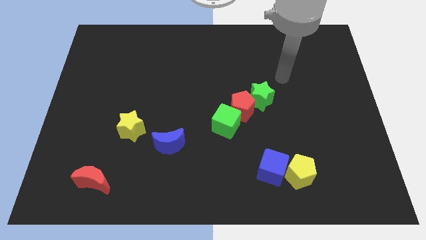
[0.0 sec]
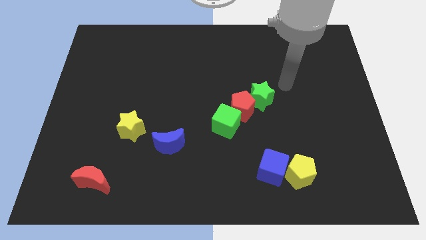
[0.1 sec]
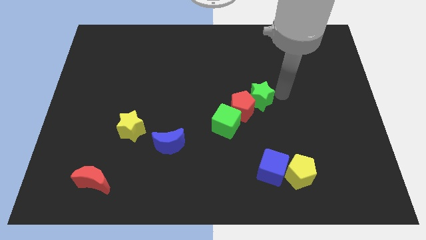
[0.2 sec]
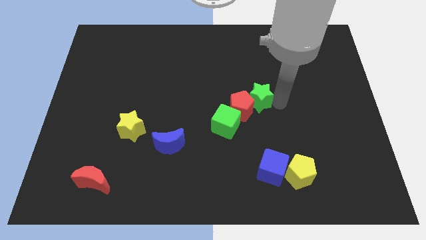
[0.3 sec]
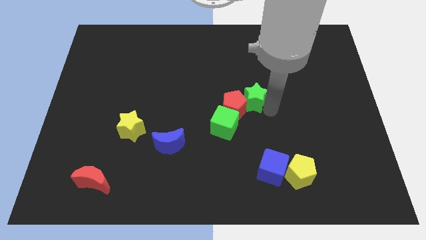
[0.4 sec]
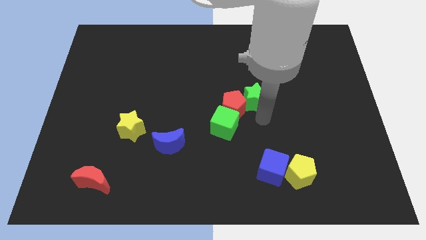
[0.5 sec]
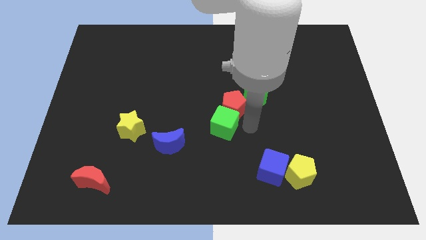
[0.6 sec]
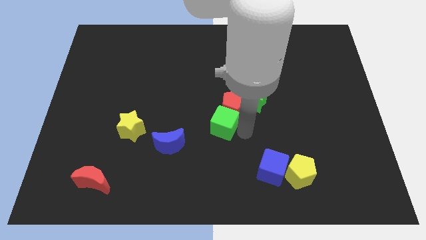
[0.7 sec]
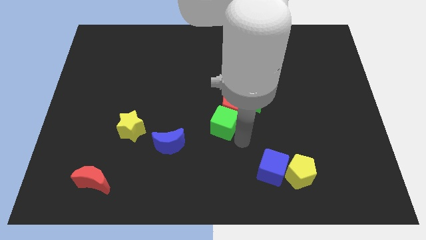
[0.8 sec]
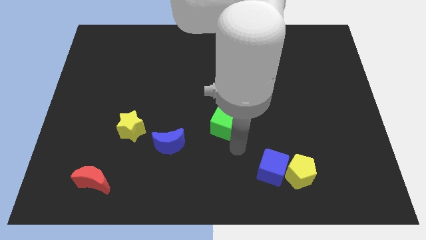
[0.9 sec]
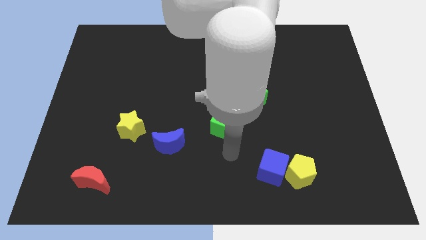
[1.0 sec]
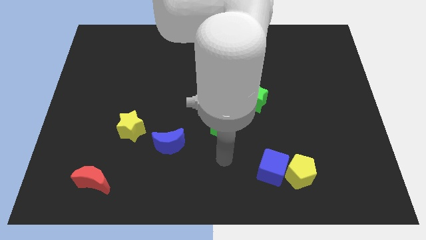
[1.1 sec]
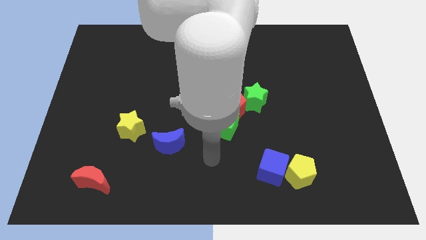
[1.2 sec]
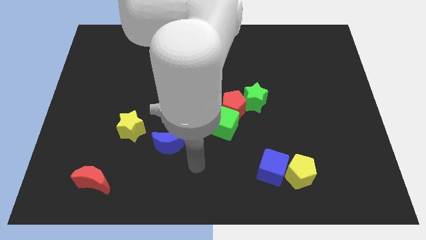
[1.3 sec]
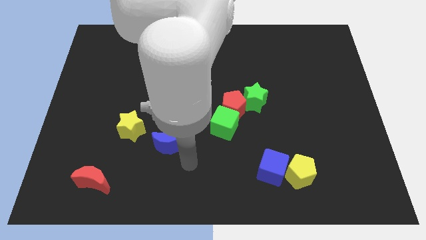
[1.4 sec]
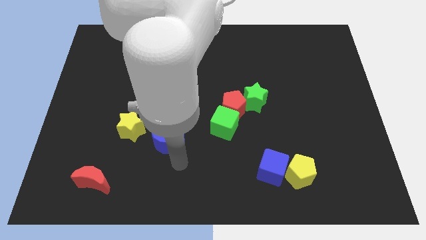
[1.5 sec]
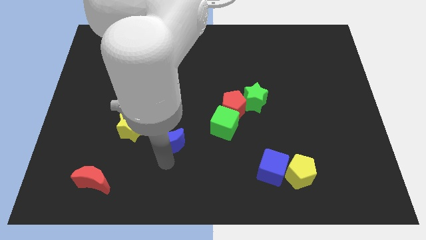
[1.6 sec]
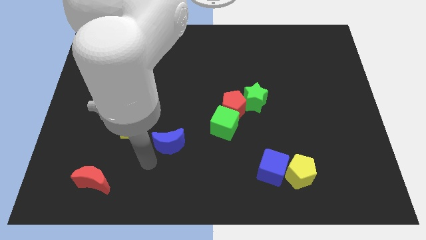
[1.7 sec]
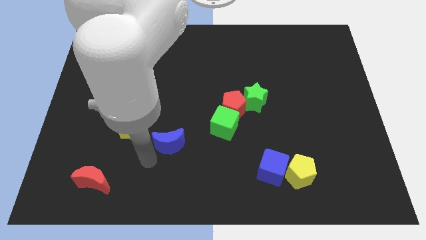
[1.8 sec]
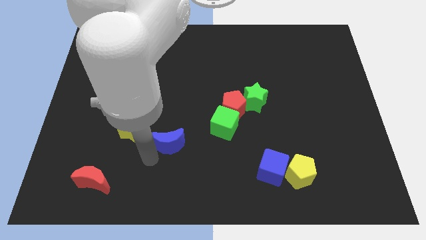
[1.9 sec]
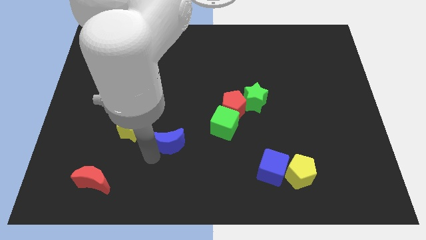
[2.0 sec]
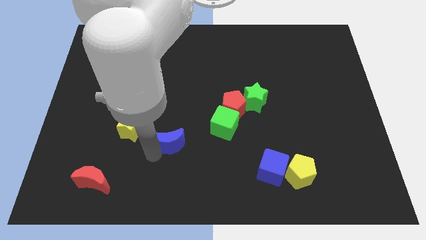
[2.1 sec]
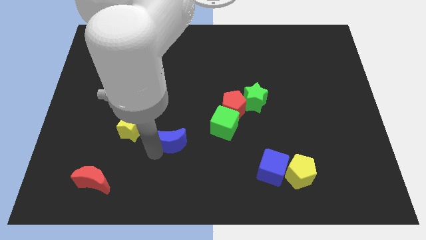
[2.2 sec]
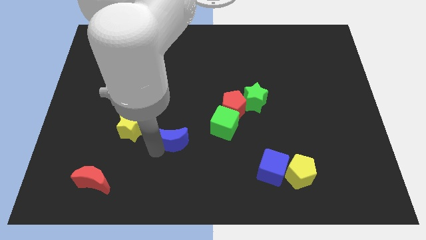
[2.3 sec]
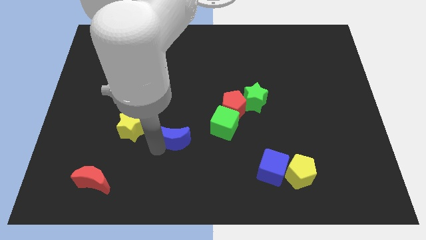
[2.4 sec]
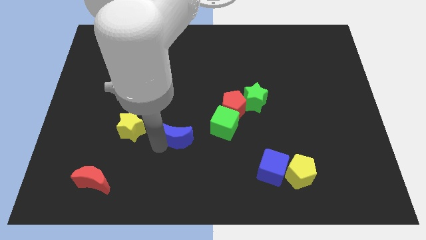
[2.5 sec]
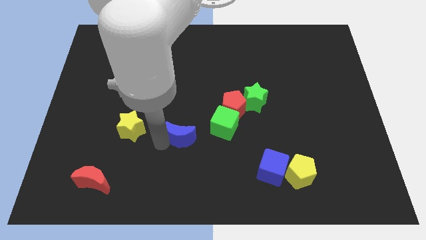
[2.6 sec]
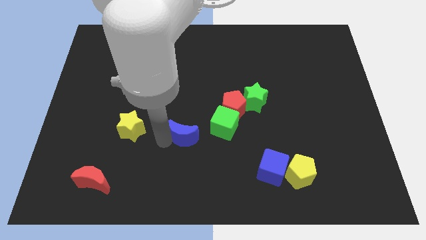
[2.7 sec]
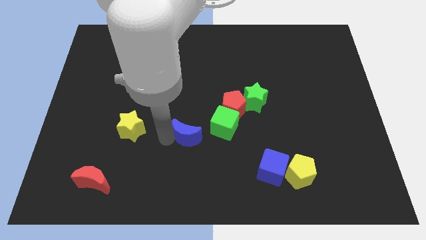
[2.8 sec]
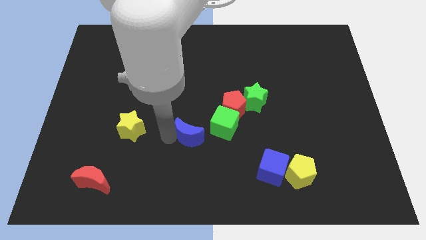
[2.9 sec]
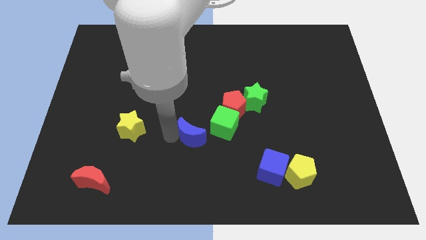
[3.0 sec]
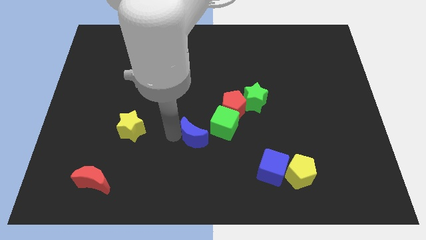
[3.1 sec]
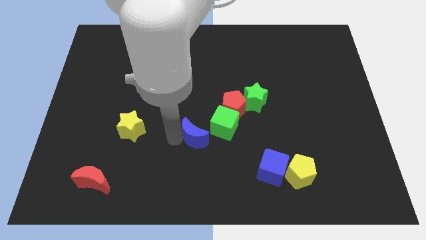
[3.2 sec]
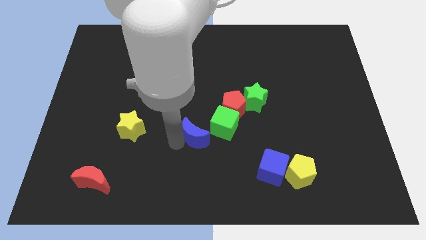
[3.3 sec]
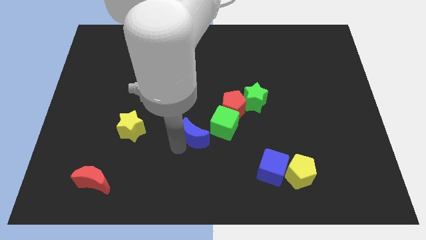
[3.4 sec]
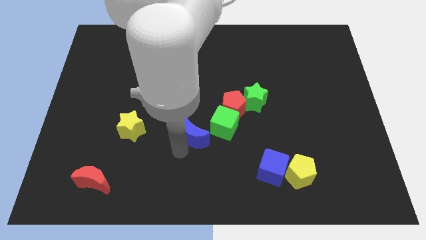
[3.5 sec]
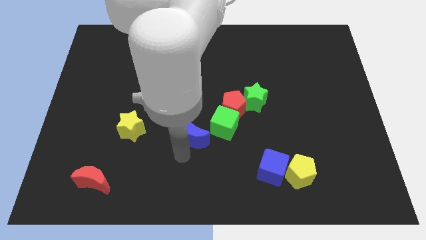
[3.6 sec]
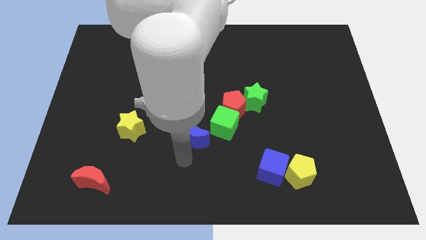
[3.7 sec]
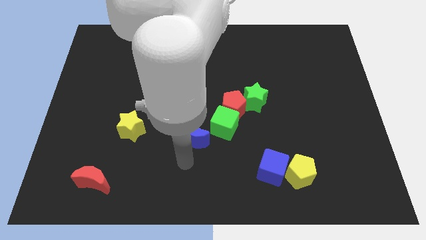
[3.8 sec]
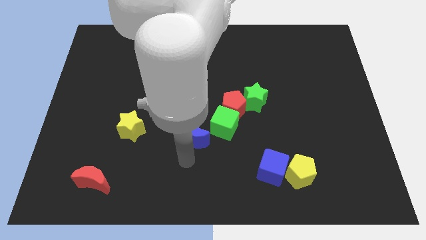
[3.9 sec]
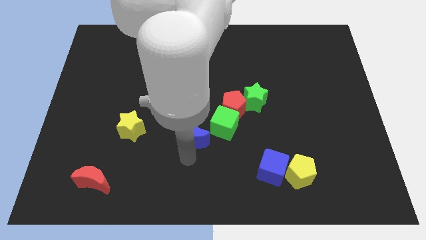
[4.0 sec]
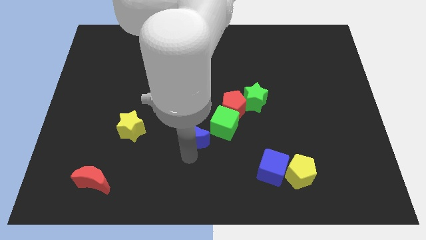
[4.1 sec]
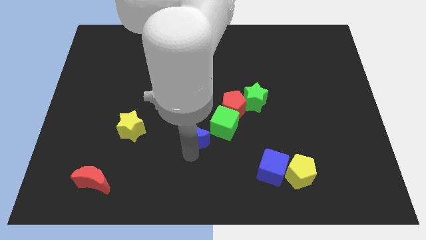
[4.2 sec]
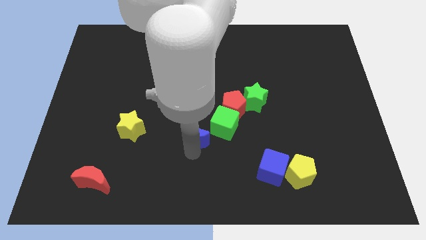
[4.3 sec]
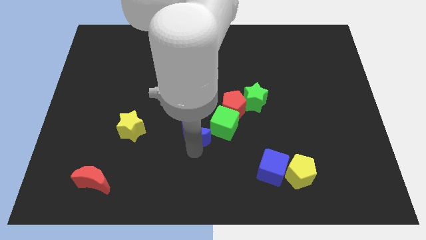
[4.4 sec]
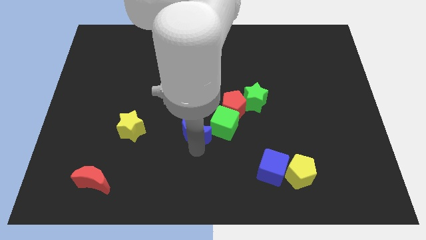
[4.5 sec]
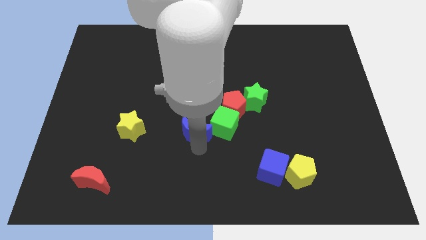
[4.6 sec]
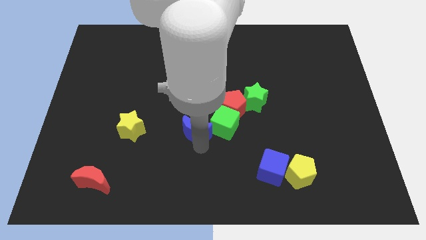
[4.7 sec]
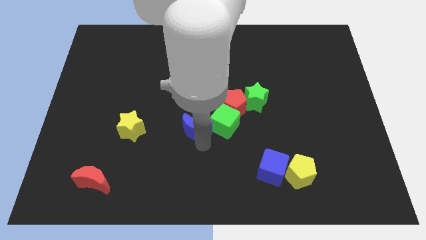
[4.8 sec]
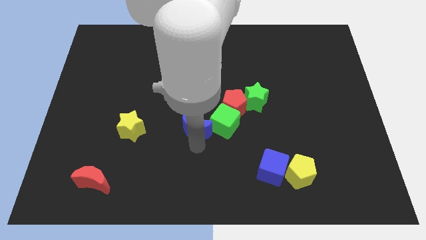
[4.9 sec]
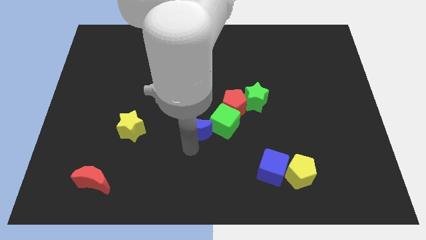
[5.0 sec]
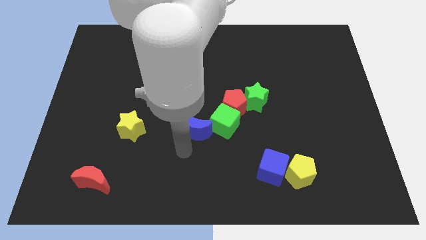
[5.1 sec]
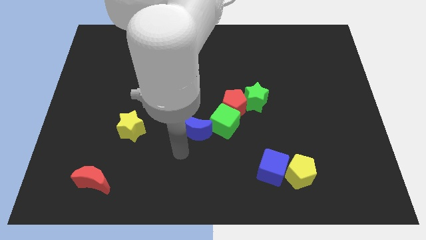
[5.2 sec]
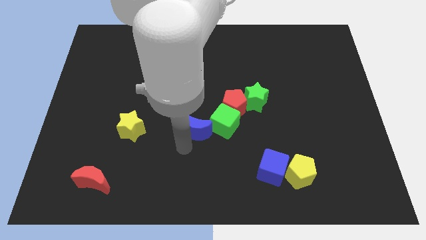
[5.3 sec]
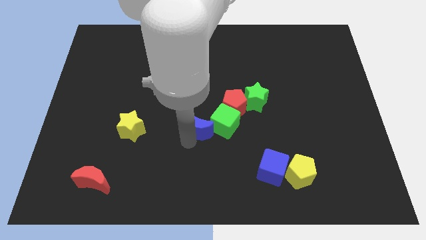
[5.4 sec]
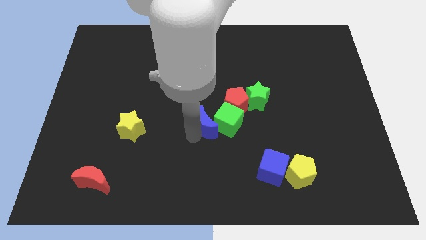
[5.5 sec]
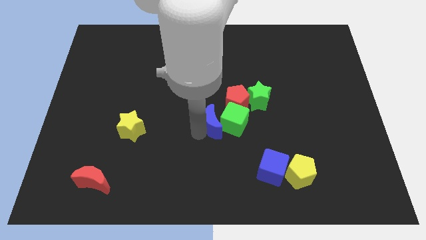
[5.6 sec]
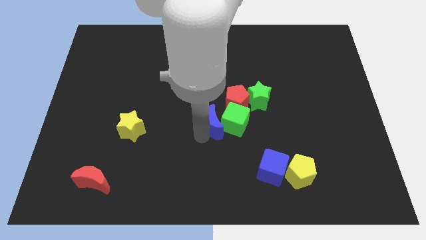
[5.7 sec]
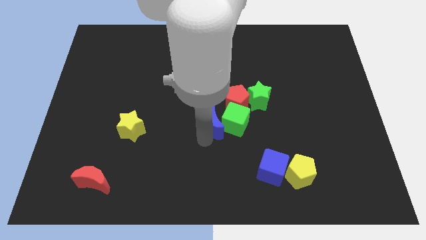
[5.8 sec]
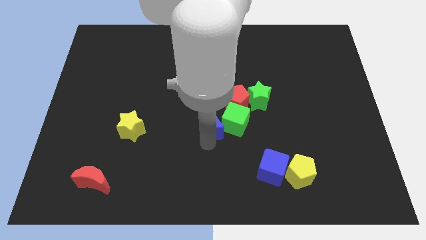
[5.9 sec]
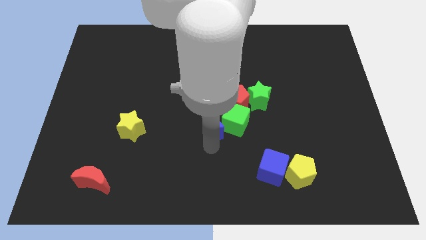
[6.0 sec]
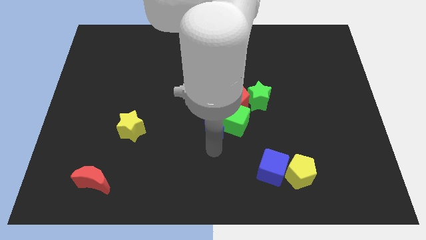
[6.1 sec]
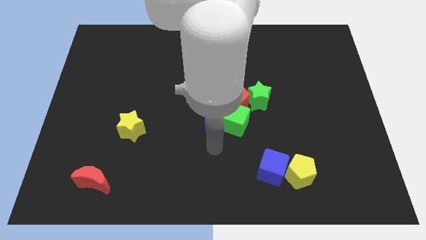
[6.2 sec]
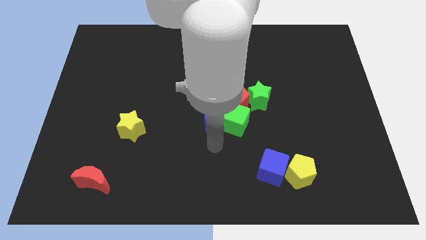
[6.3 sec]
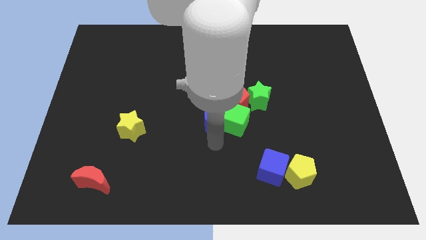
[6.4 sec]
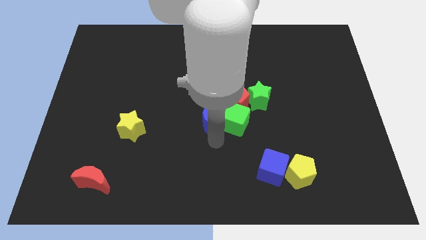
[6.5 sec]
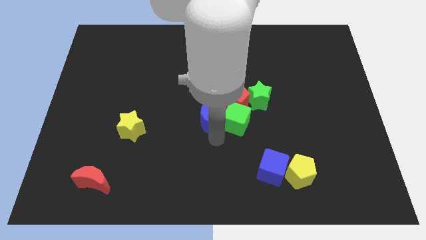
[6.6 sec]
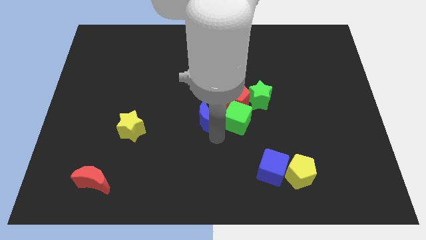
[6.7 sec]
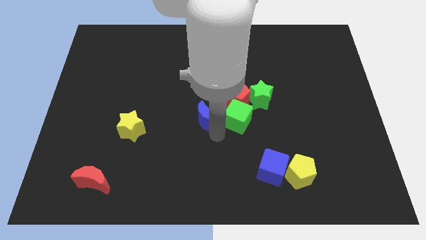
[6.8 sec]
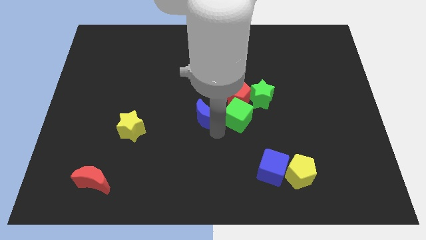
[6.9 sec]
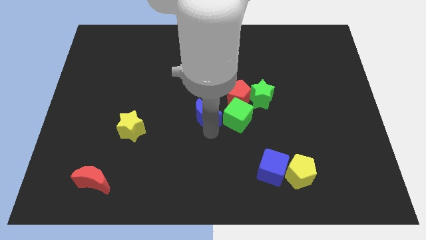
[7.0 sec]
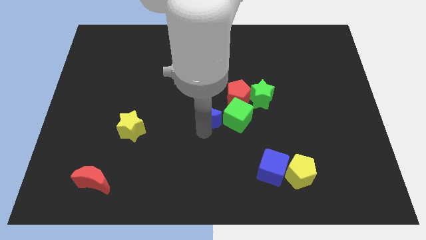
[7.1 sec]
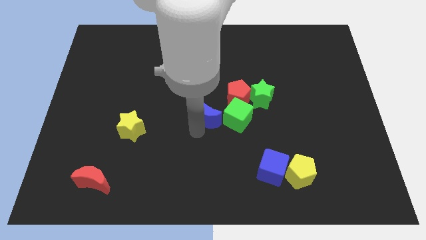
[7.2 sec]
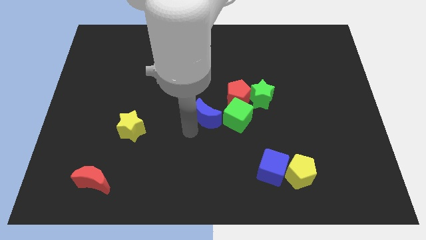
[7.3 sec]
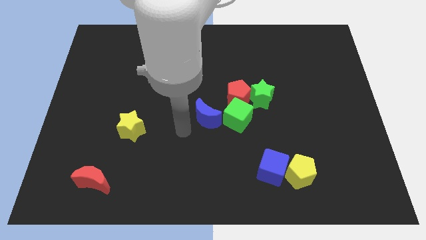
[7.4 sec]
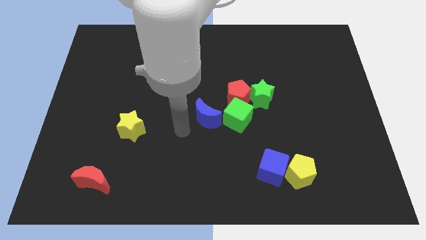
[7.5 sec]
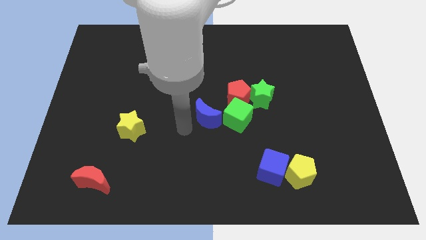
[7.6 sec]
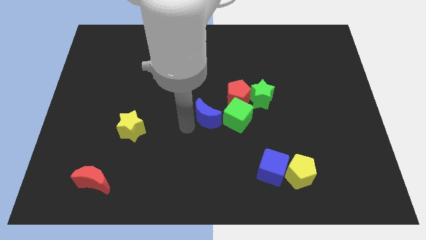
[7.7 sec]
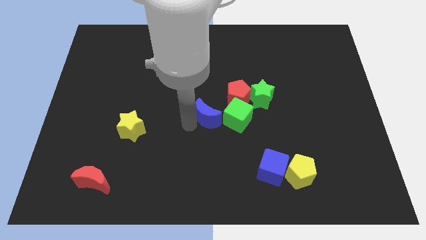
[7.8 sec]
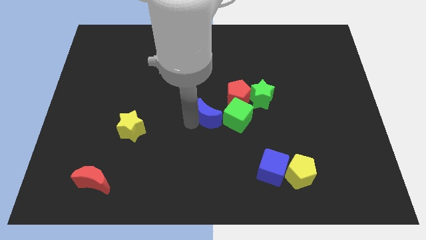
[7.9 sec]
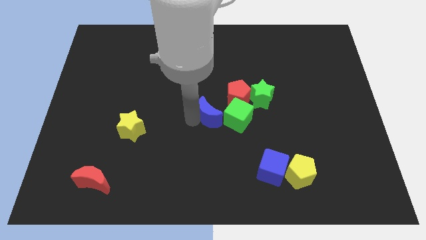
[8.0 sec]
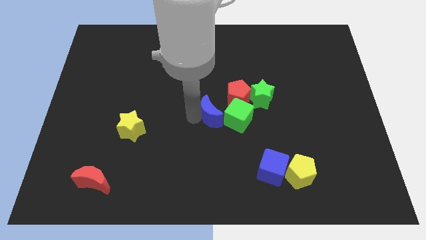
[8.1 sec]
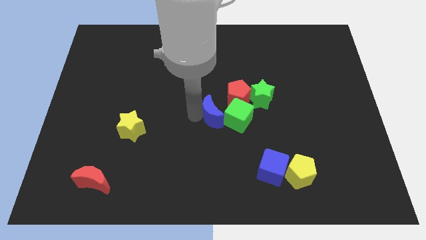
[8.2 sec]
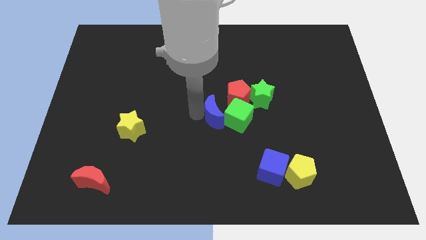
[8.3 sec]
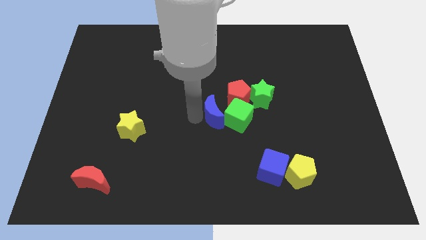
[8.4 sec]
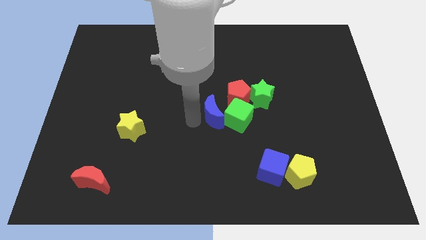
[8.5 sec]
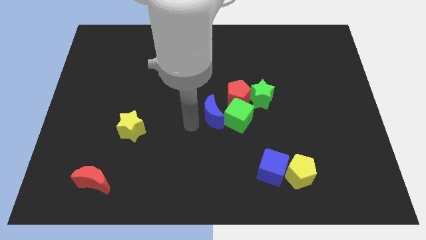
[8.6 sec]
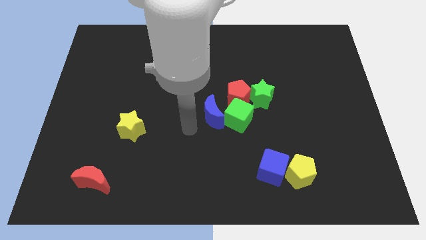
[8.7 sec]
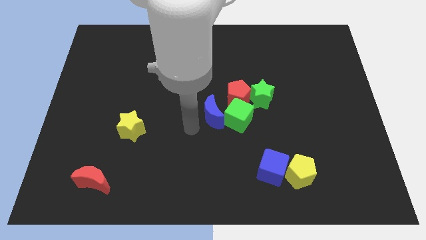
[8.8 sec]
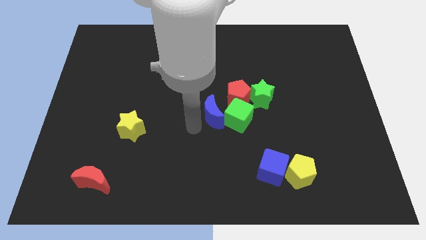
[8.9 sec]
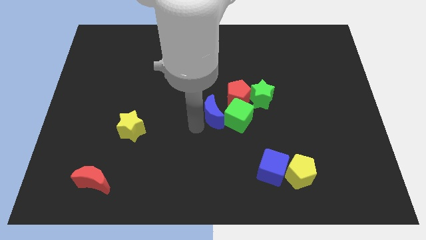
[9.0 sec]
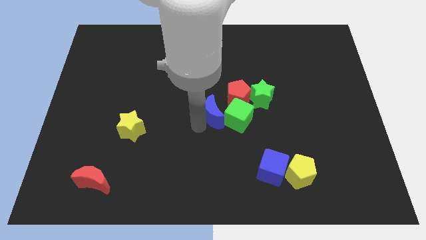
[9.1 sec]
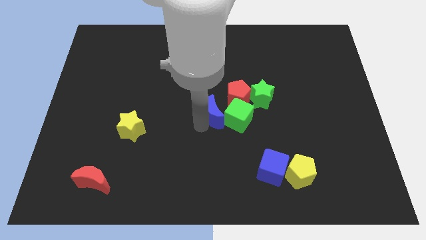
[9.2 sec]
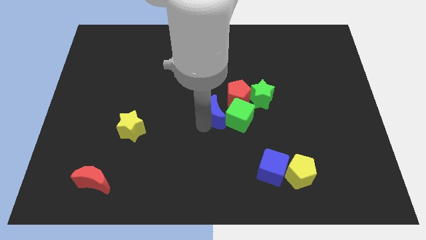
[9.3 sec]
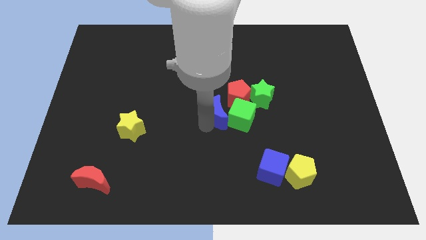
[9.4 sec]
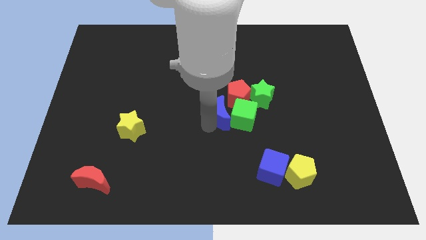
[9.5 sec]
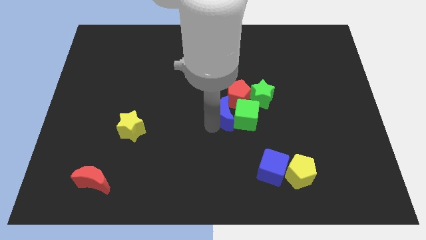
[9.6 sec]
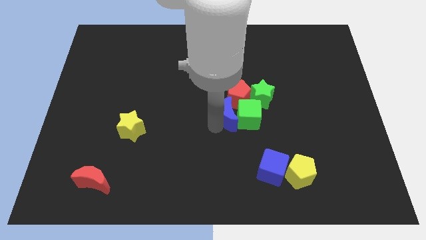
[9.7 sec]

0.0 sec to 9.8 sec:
move the blue moon to the red pentagon
